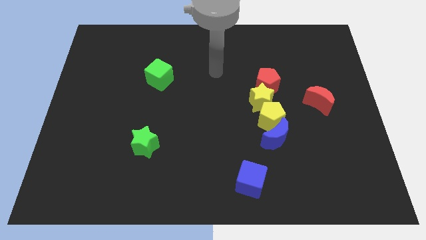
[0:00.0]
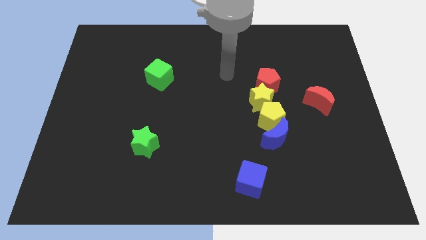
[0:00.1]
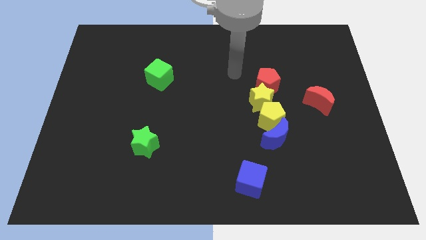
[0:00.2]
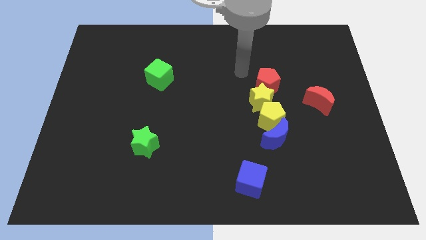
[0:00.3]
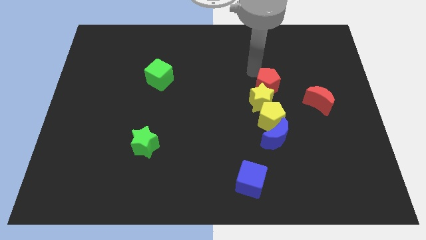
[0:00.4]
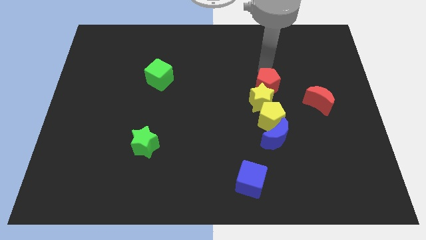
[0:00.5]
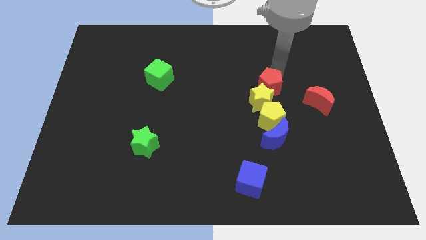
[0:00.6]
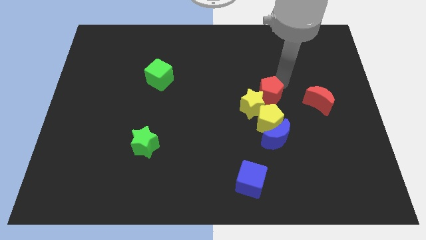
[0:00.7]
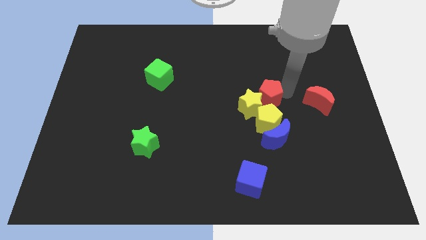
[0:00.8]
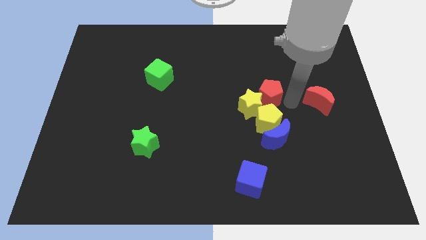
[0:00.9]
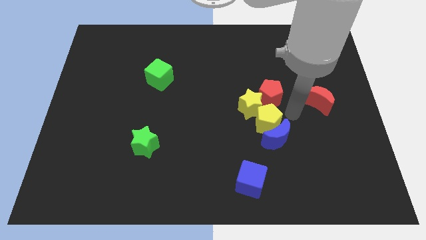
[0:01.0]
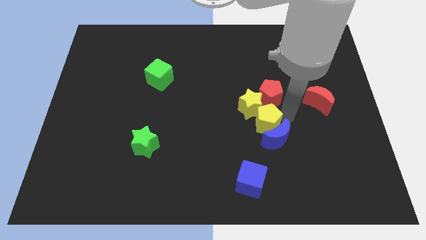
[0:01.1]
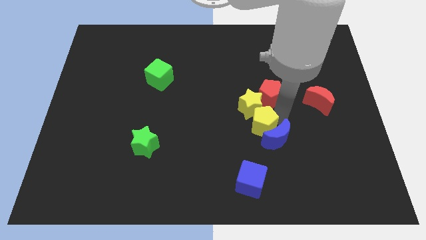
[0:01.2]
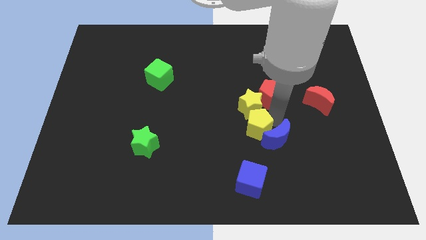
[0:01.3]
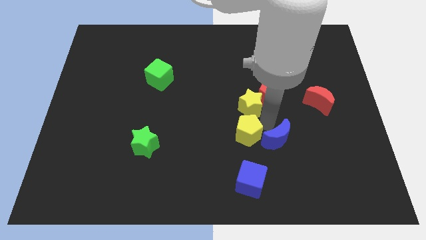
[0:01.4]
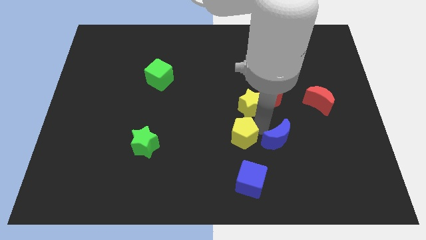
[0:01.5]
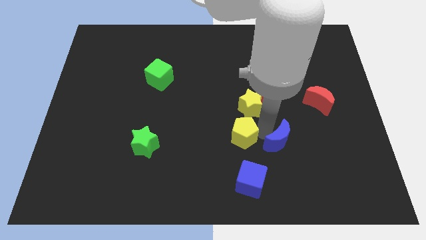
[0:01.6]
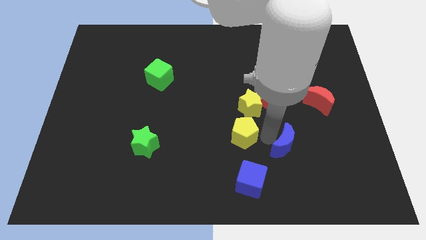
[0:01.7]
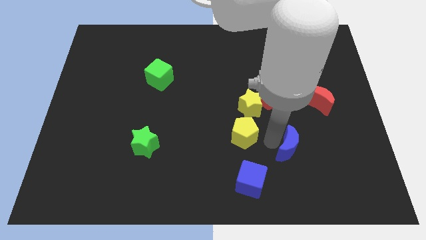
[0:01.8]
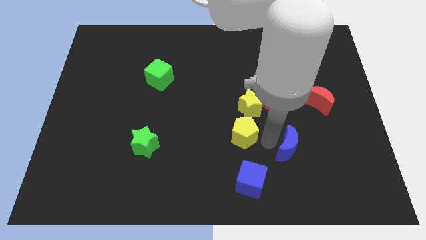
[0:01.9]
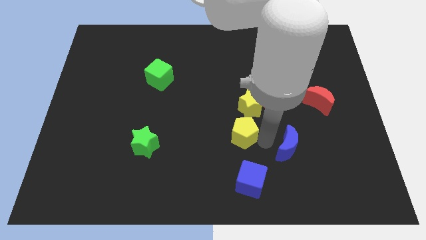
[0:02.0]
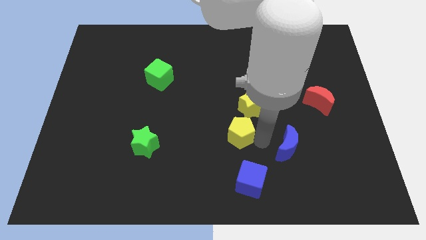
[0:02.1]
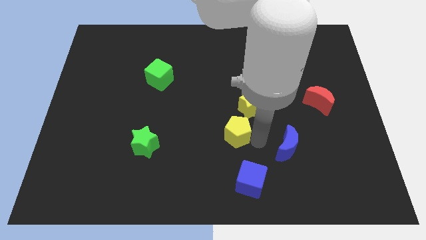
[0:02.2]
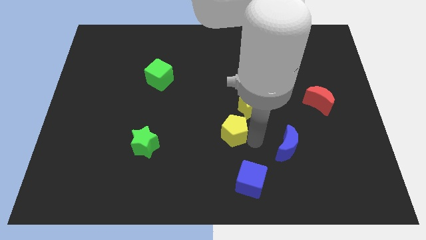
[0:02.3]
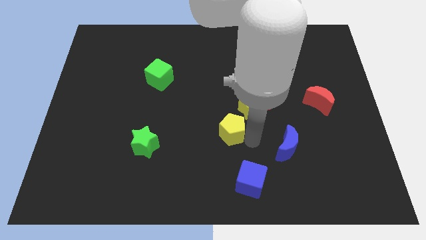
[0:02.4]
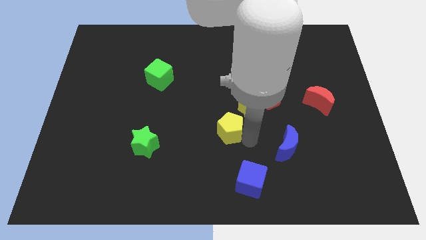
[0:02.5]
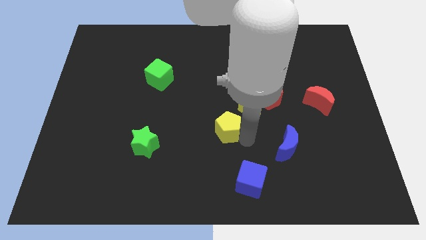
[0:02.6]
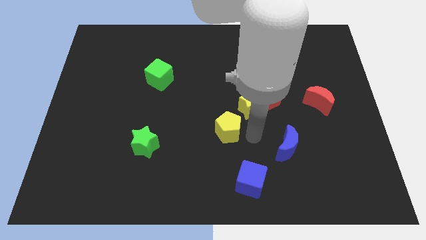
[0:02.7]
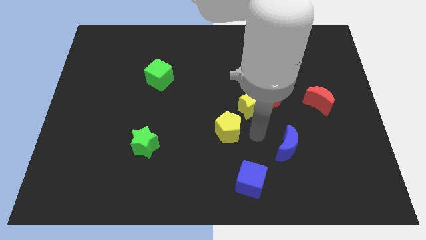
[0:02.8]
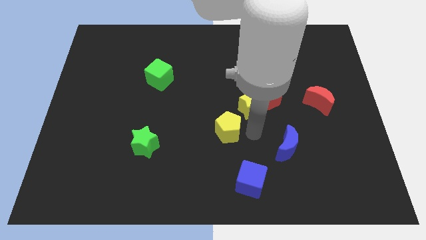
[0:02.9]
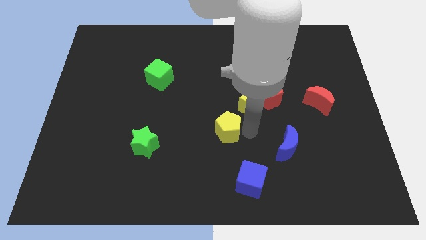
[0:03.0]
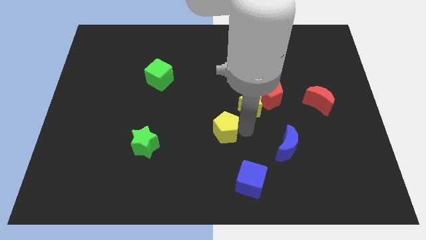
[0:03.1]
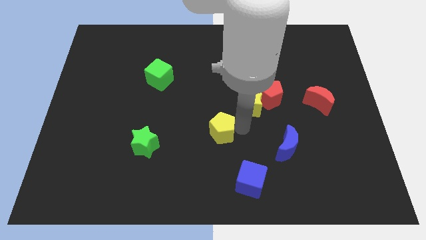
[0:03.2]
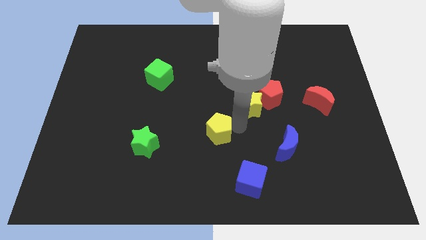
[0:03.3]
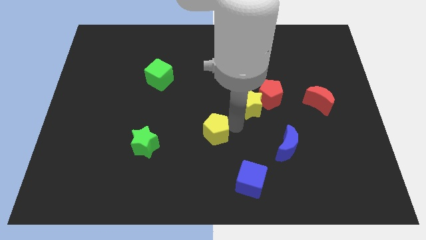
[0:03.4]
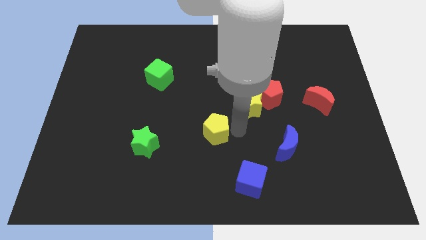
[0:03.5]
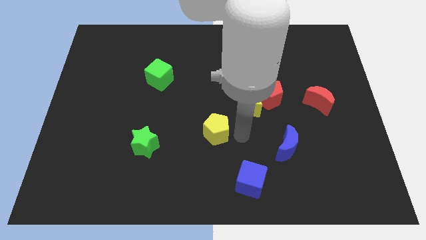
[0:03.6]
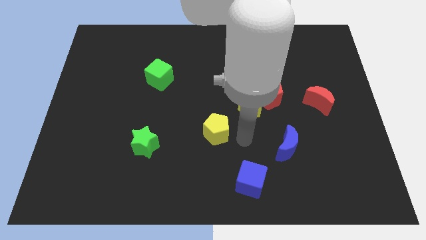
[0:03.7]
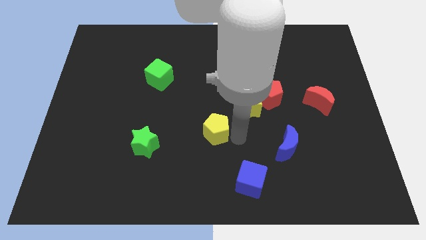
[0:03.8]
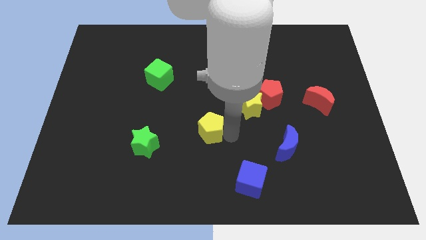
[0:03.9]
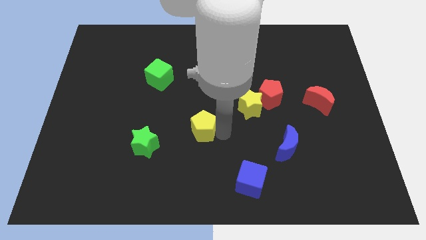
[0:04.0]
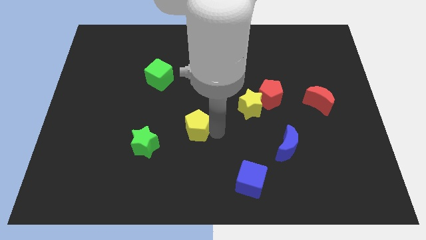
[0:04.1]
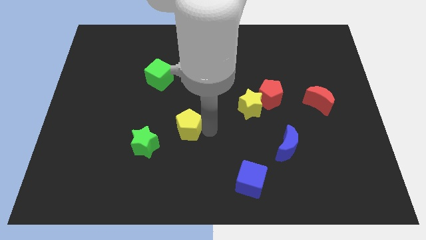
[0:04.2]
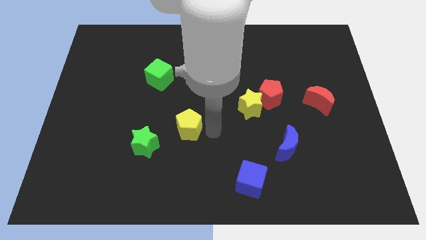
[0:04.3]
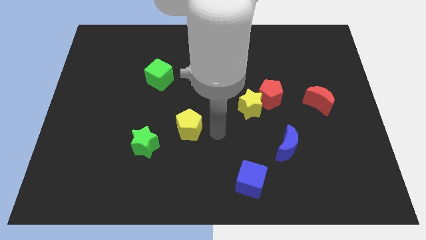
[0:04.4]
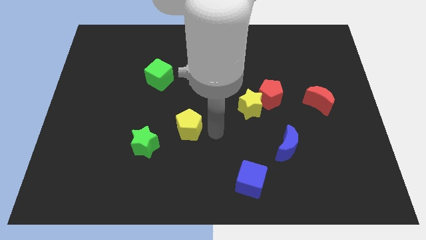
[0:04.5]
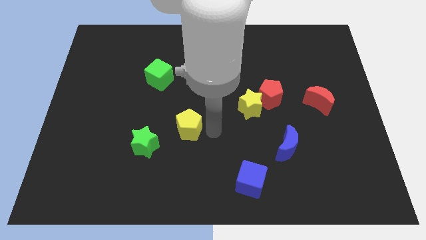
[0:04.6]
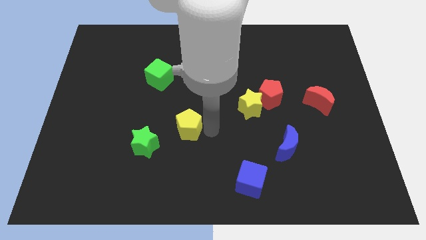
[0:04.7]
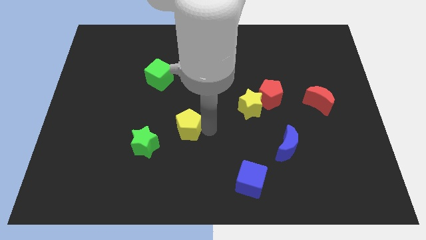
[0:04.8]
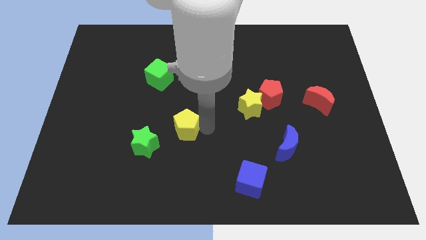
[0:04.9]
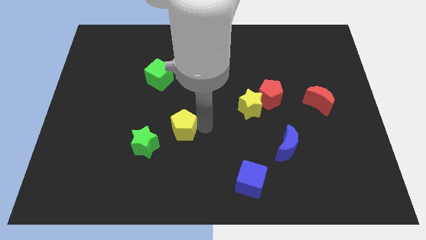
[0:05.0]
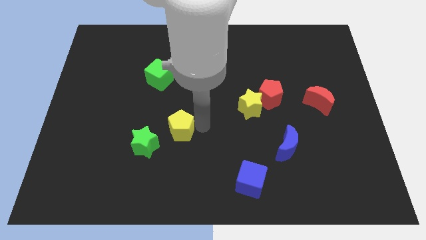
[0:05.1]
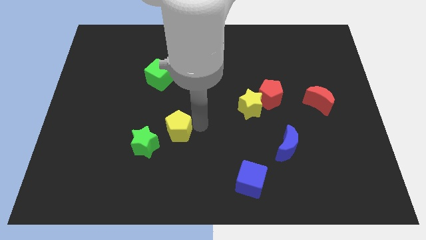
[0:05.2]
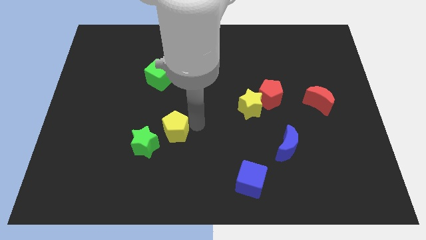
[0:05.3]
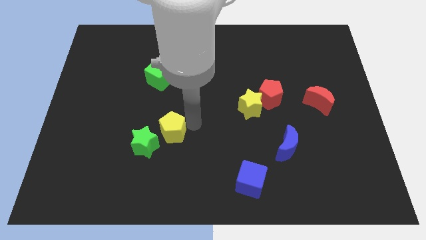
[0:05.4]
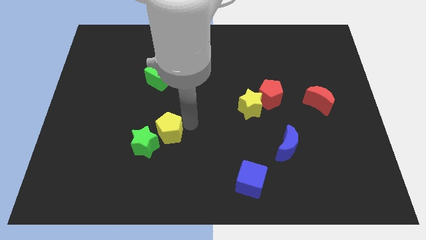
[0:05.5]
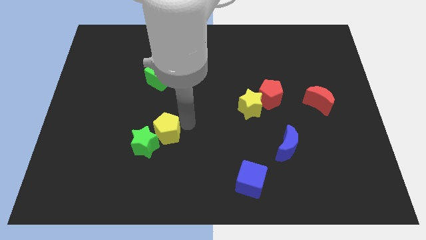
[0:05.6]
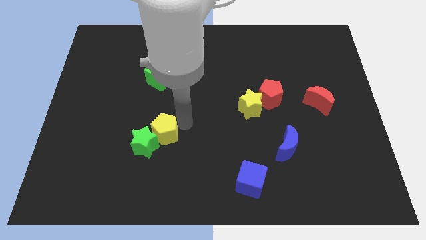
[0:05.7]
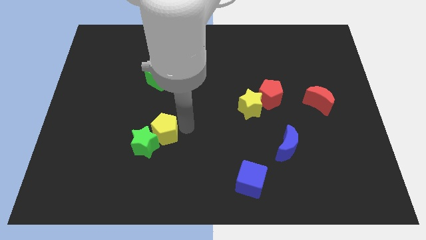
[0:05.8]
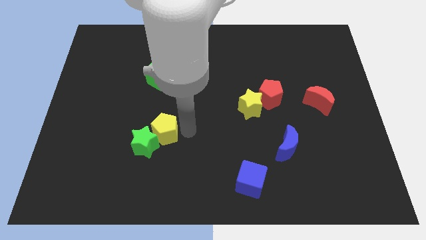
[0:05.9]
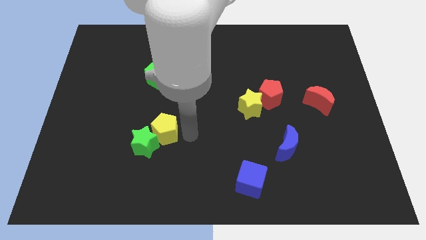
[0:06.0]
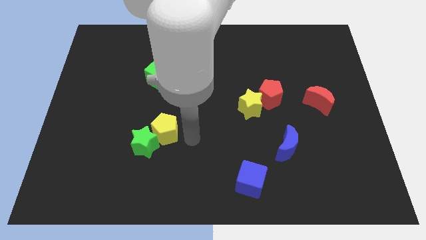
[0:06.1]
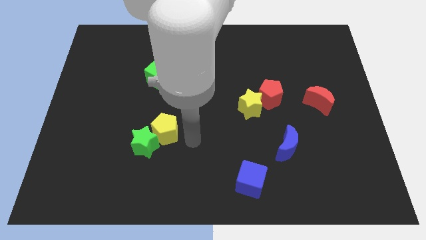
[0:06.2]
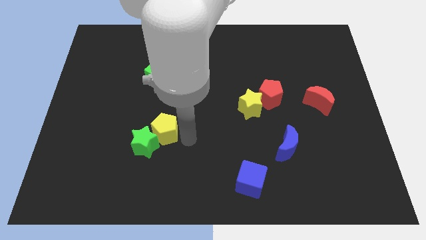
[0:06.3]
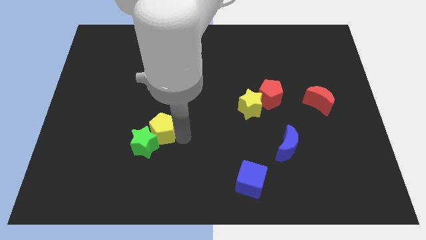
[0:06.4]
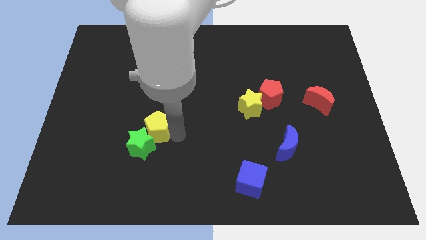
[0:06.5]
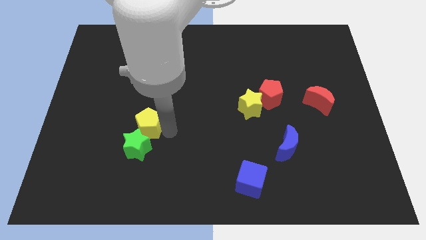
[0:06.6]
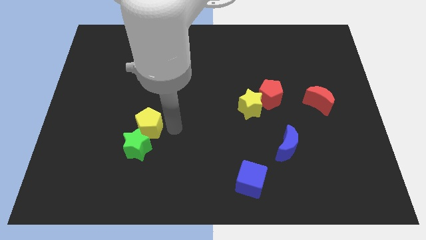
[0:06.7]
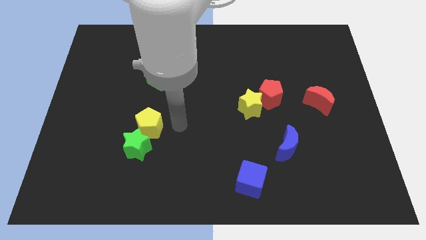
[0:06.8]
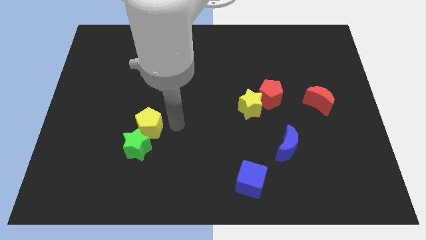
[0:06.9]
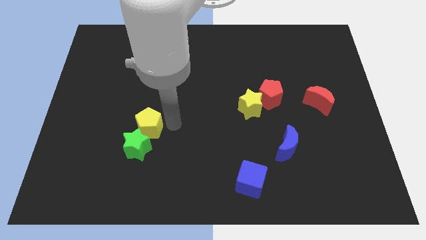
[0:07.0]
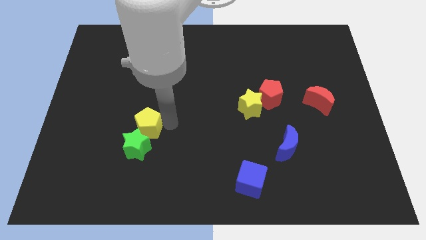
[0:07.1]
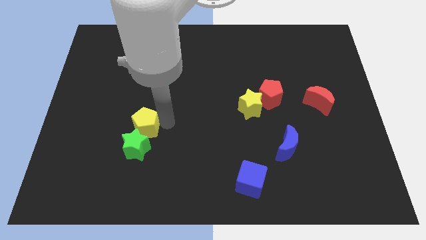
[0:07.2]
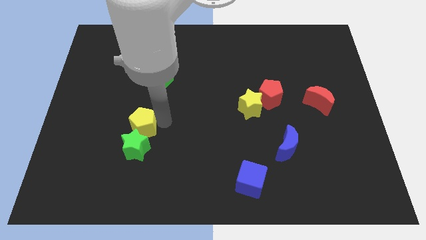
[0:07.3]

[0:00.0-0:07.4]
put the yellow pentagon to the top left side of the green star
